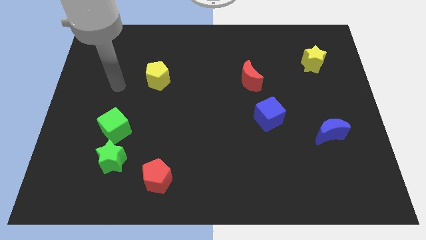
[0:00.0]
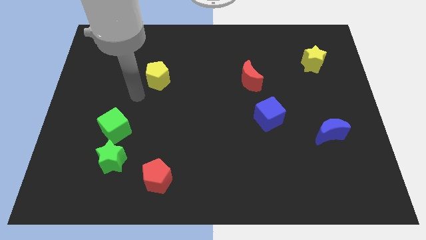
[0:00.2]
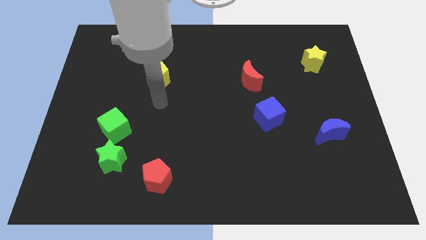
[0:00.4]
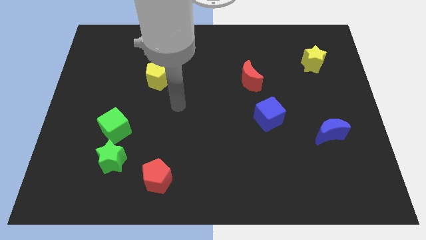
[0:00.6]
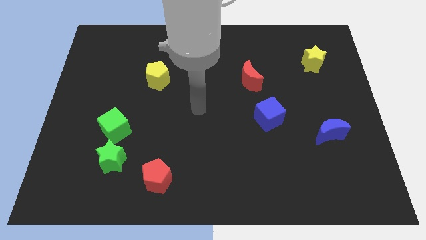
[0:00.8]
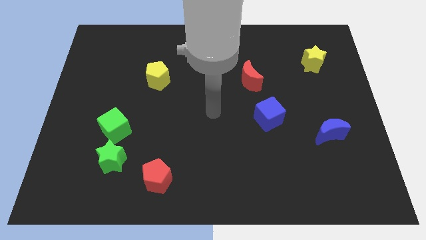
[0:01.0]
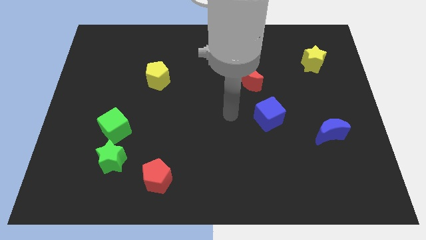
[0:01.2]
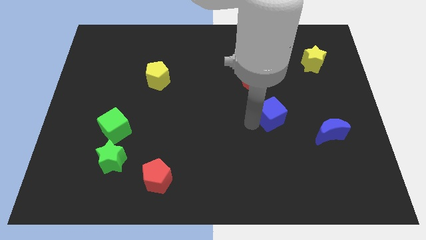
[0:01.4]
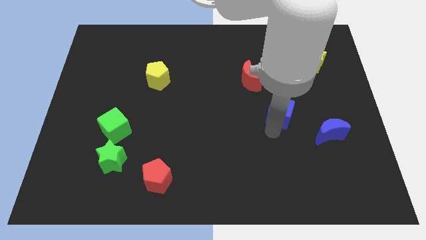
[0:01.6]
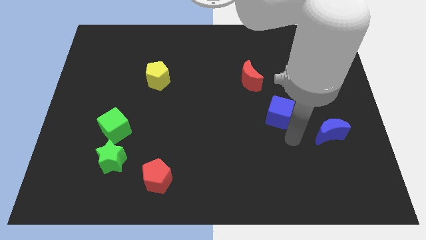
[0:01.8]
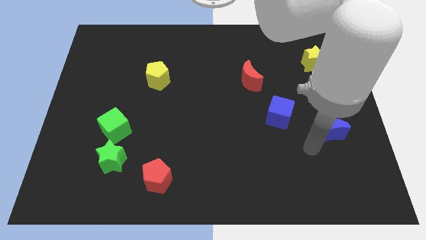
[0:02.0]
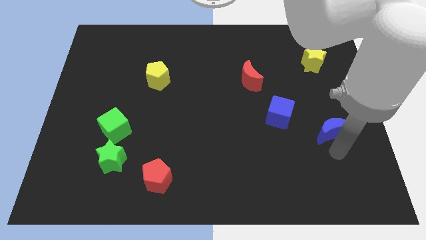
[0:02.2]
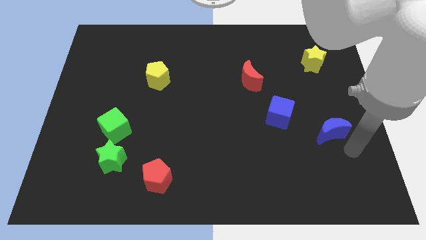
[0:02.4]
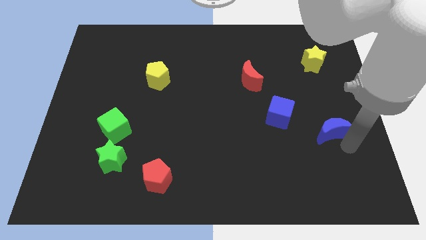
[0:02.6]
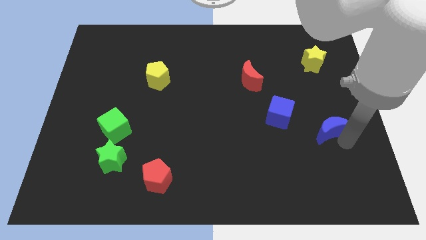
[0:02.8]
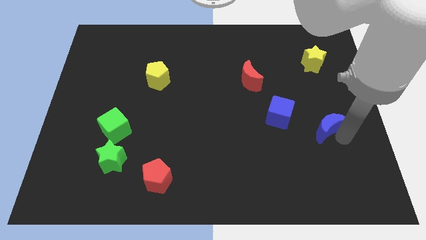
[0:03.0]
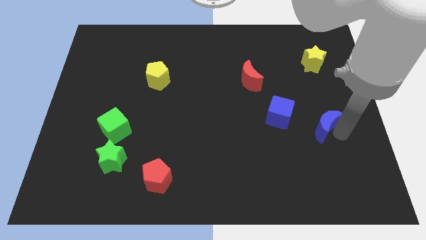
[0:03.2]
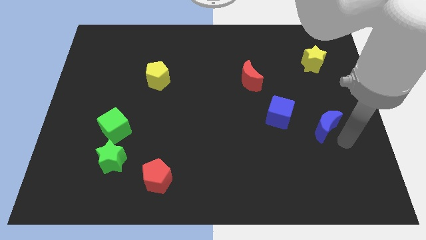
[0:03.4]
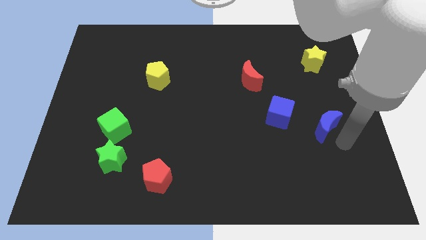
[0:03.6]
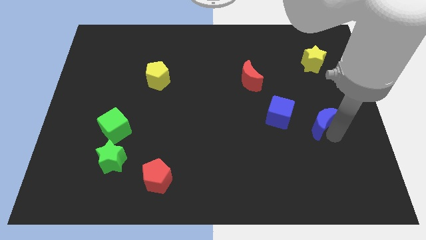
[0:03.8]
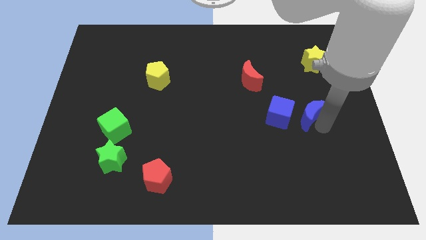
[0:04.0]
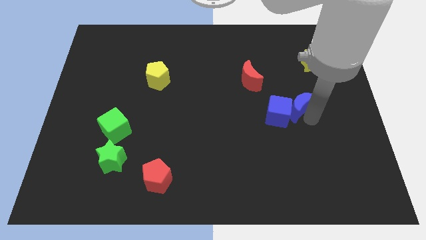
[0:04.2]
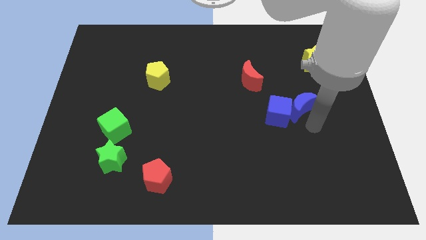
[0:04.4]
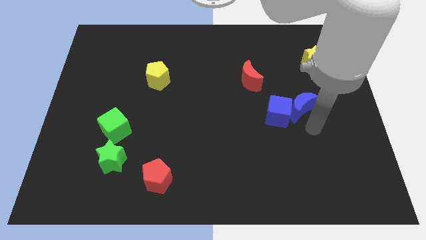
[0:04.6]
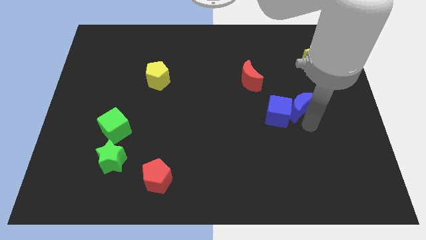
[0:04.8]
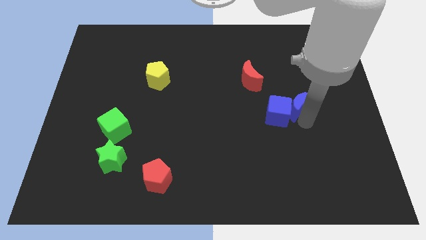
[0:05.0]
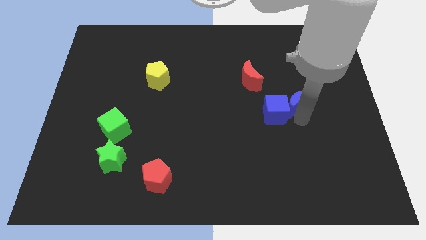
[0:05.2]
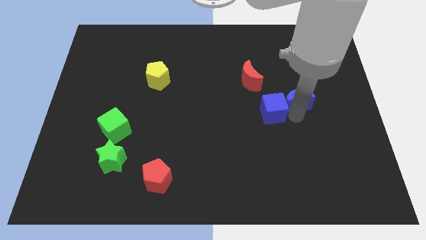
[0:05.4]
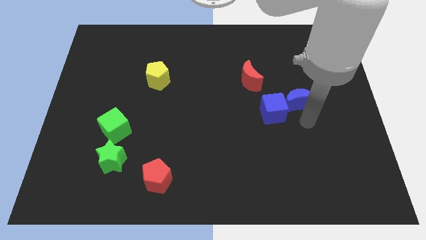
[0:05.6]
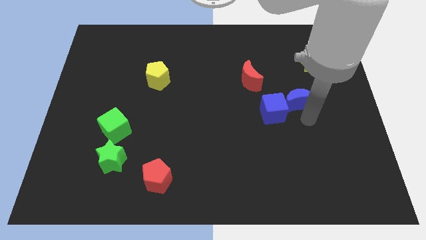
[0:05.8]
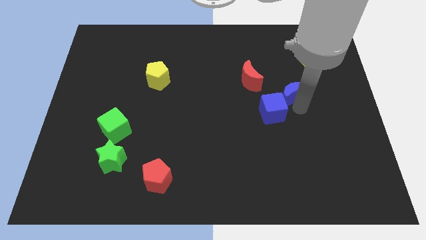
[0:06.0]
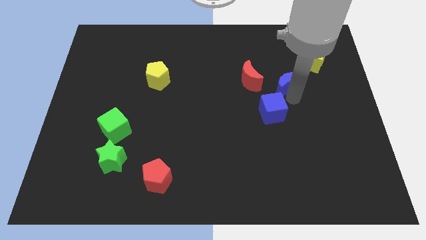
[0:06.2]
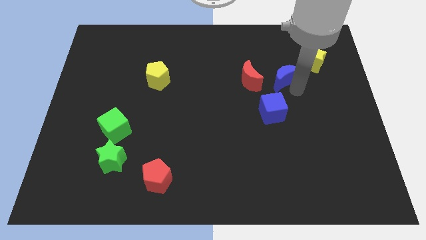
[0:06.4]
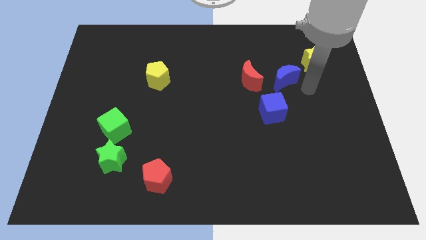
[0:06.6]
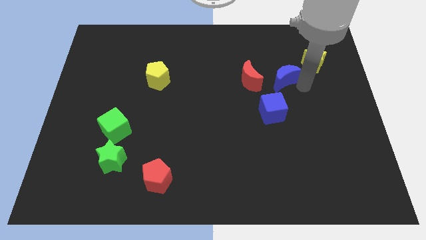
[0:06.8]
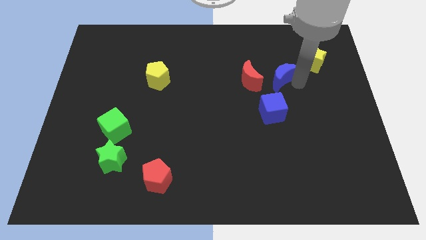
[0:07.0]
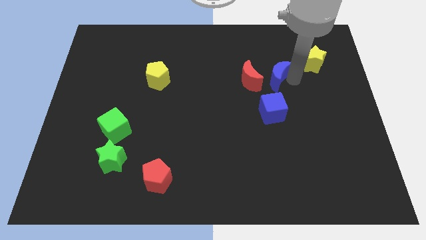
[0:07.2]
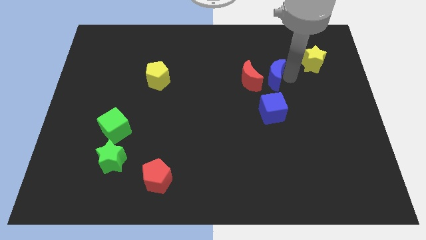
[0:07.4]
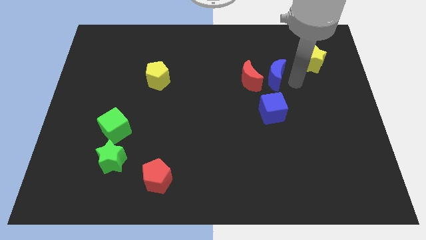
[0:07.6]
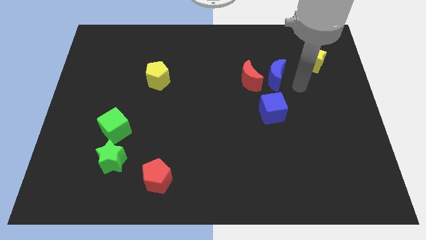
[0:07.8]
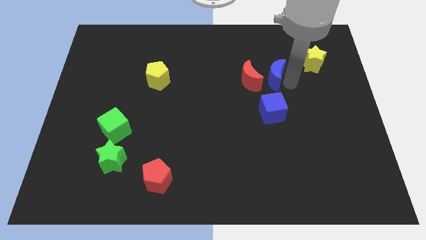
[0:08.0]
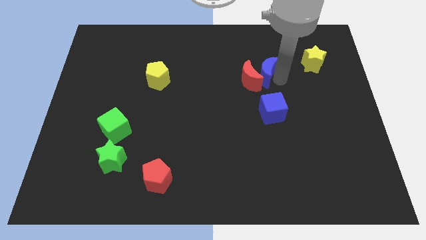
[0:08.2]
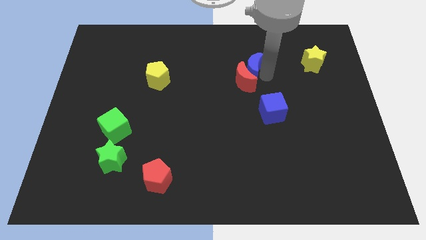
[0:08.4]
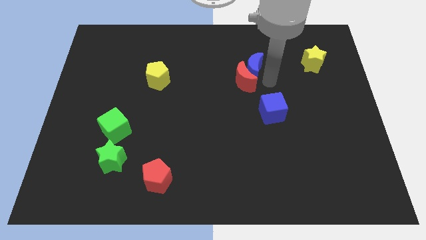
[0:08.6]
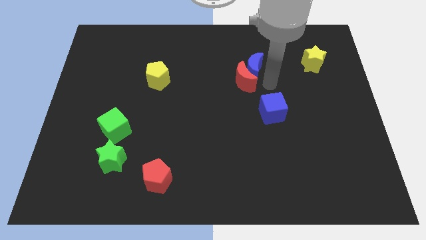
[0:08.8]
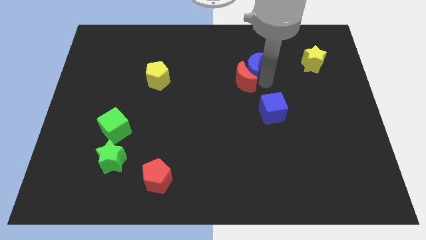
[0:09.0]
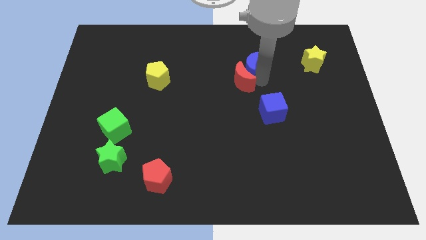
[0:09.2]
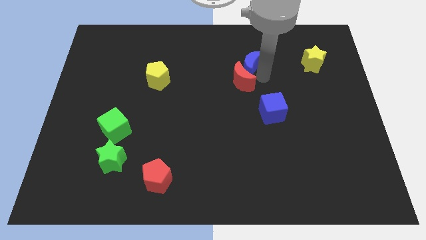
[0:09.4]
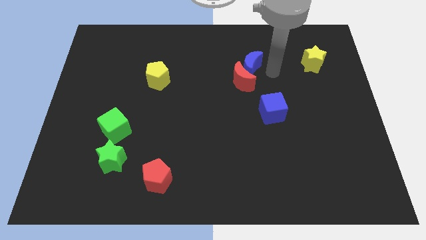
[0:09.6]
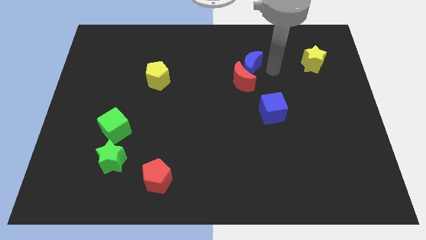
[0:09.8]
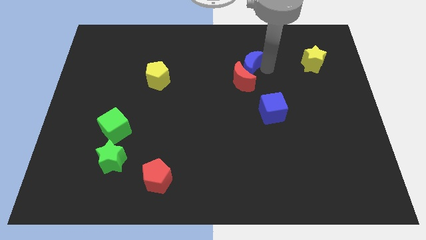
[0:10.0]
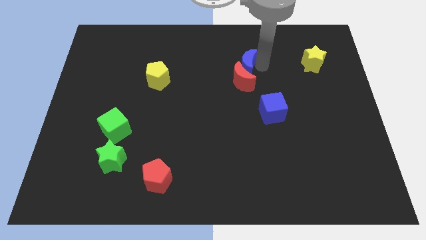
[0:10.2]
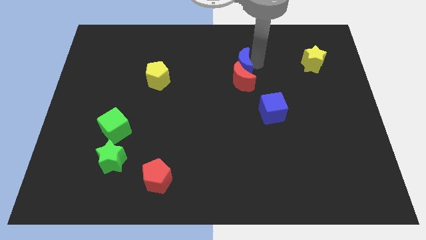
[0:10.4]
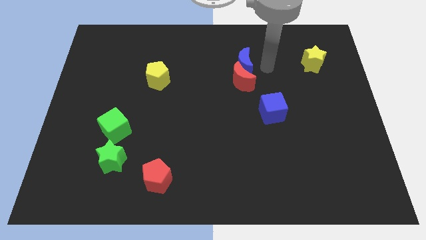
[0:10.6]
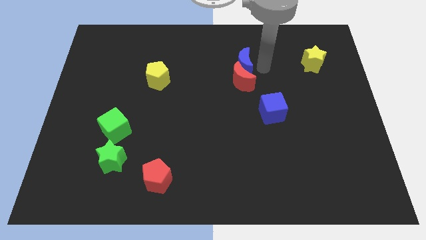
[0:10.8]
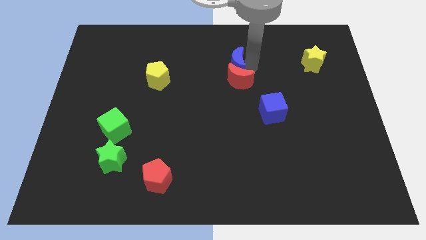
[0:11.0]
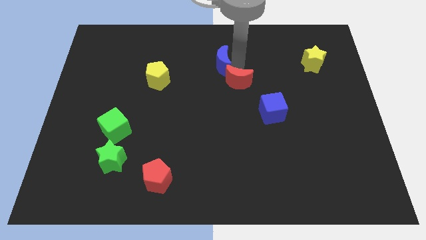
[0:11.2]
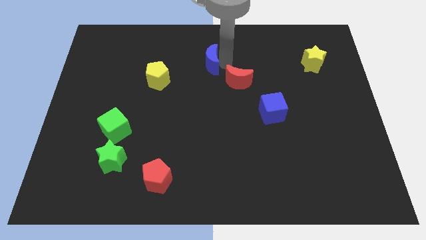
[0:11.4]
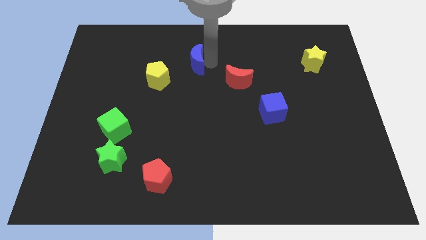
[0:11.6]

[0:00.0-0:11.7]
move the blue moon diagonally up and to the right of the yellow pentagon

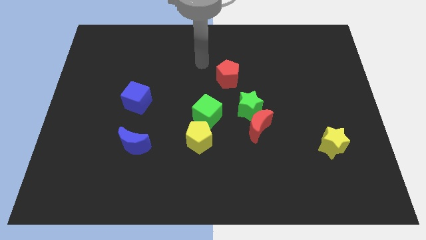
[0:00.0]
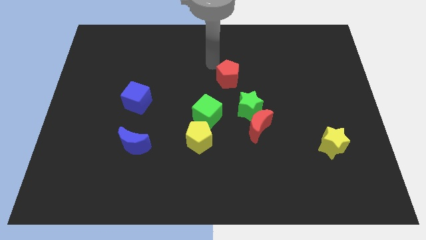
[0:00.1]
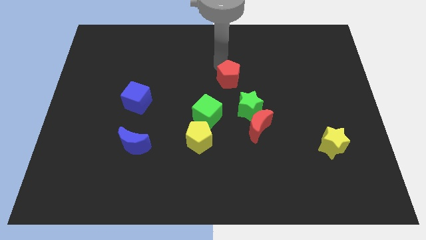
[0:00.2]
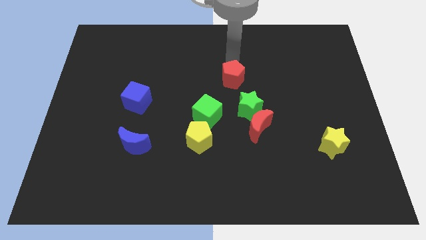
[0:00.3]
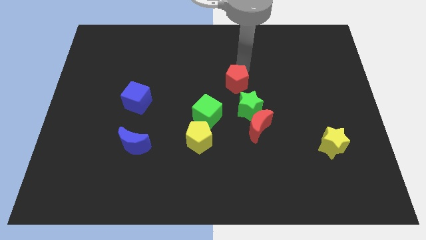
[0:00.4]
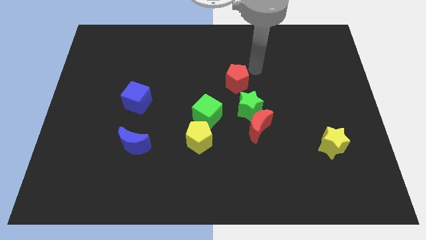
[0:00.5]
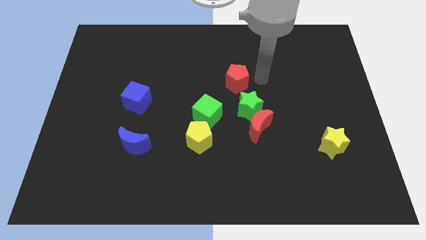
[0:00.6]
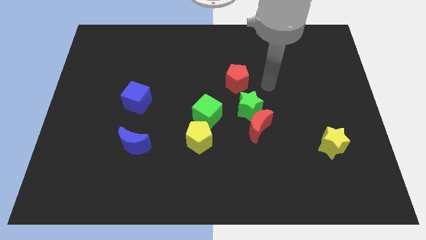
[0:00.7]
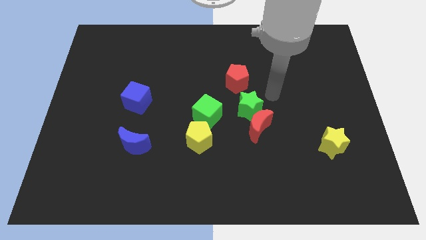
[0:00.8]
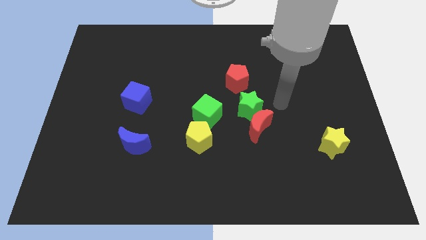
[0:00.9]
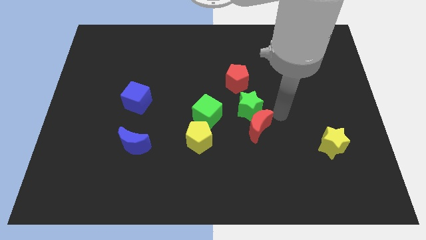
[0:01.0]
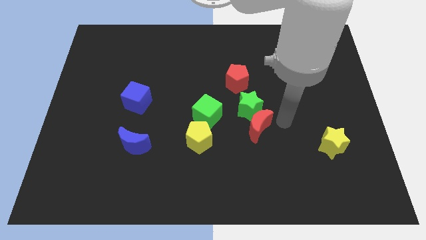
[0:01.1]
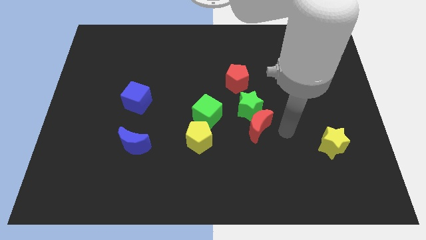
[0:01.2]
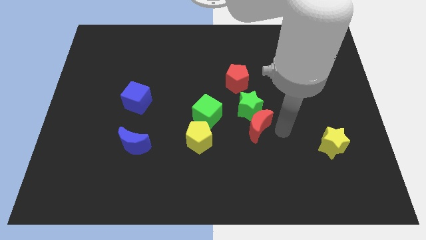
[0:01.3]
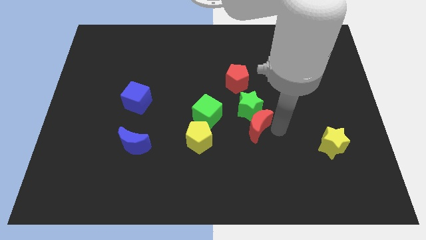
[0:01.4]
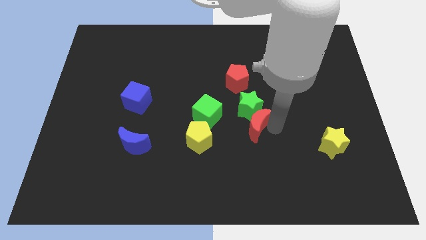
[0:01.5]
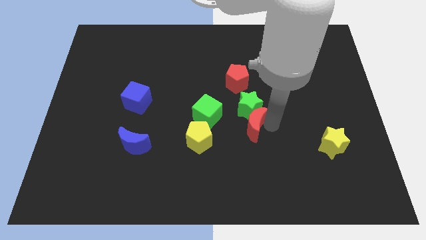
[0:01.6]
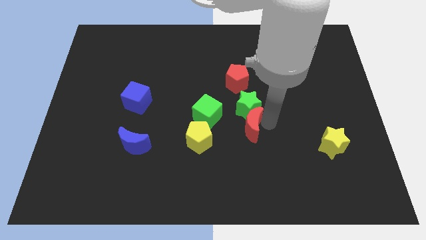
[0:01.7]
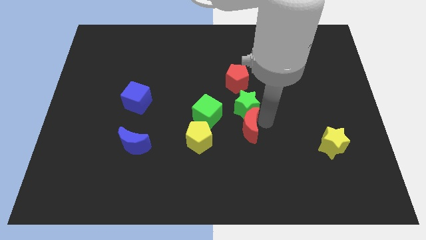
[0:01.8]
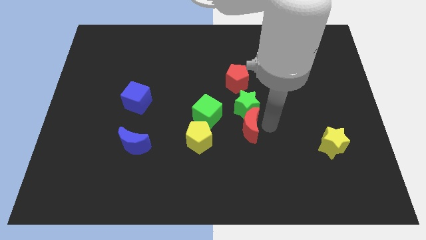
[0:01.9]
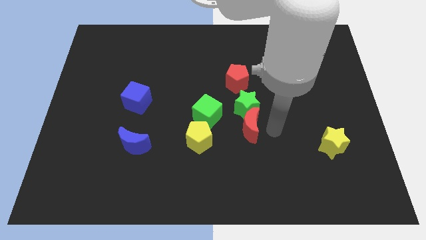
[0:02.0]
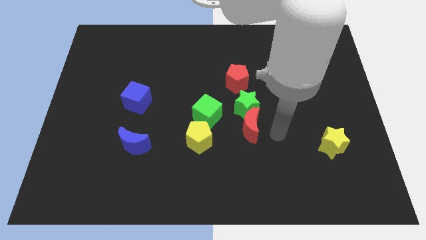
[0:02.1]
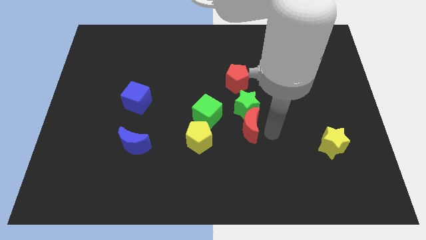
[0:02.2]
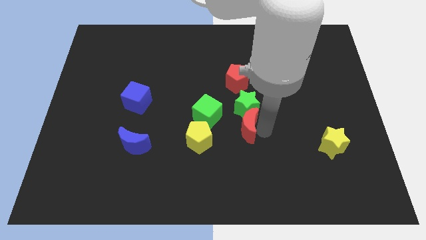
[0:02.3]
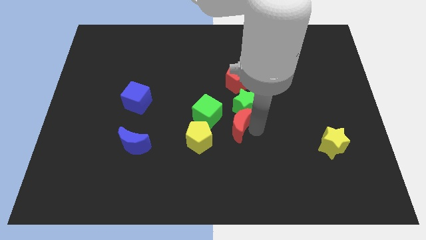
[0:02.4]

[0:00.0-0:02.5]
put the red moon diagonally up and to the right of the yellow pentagon
